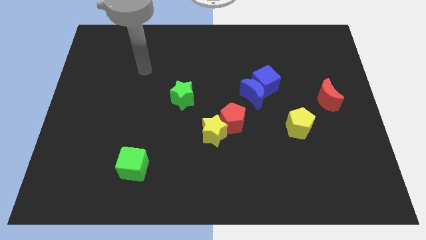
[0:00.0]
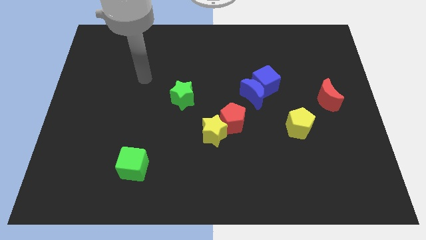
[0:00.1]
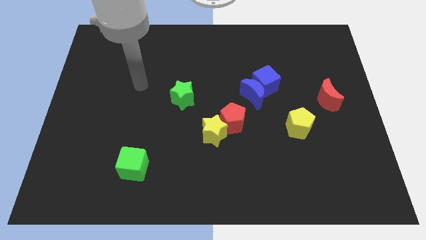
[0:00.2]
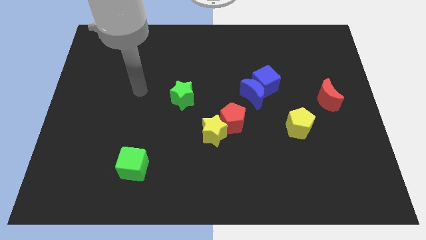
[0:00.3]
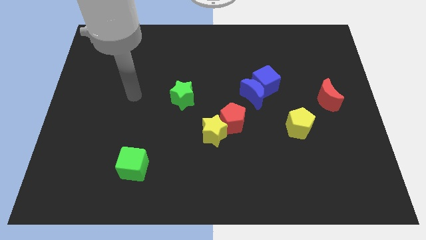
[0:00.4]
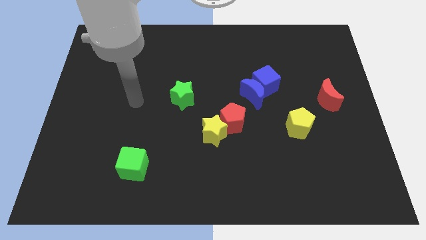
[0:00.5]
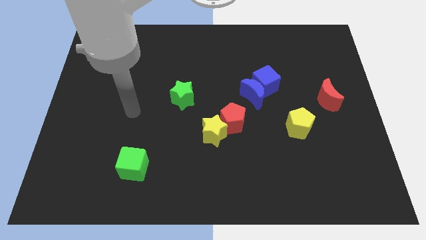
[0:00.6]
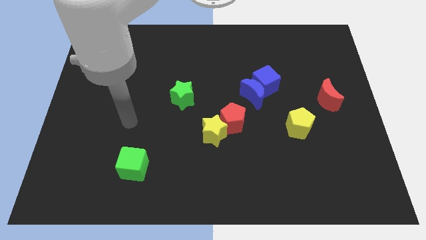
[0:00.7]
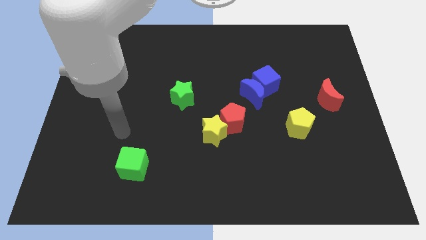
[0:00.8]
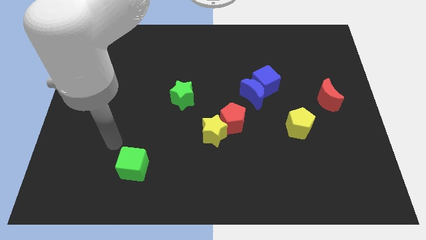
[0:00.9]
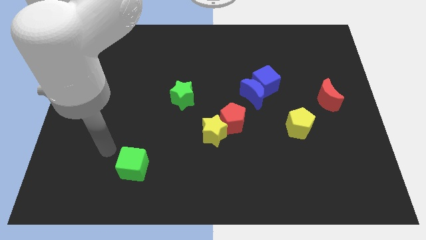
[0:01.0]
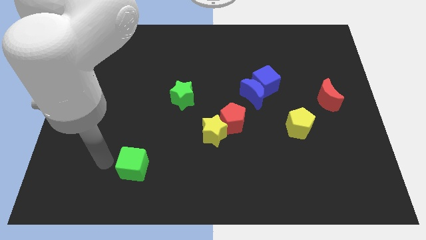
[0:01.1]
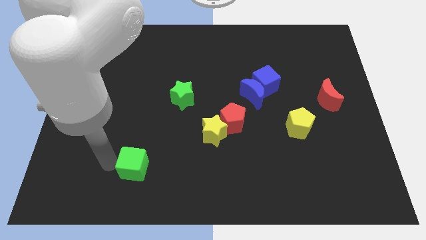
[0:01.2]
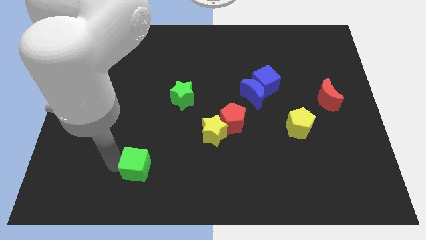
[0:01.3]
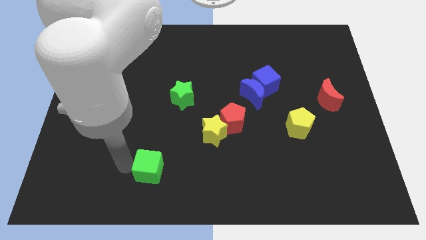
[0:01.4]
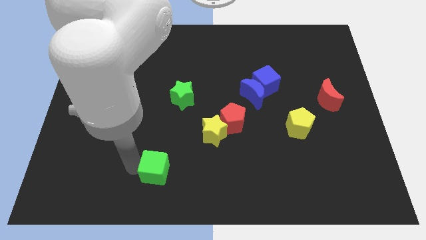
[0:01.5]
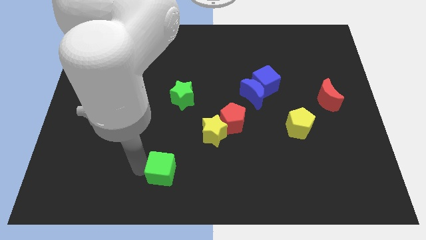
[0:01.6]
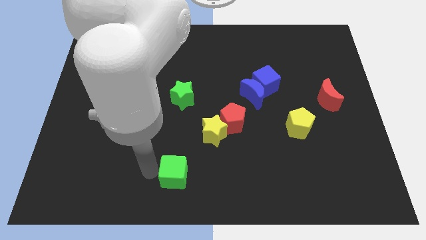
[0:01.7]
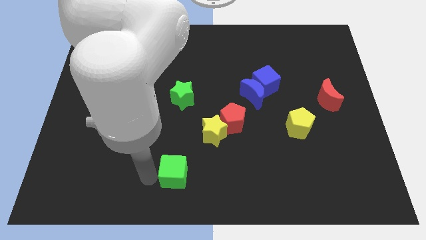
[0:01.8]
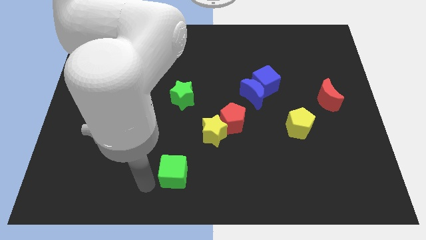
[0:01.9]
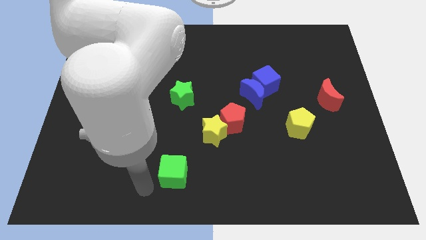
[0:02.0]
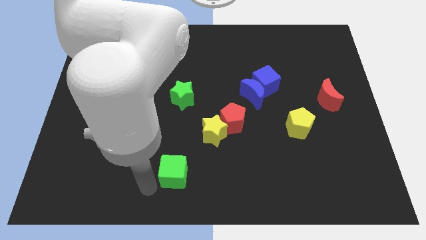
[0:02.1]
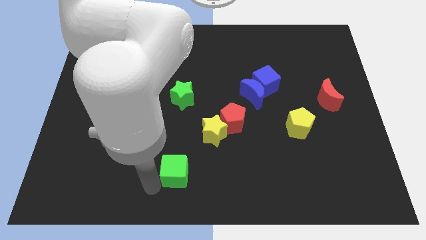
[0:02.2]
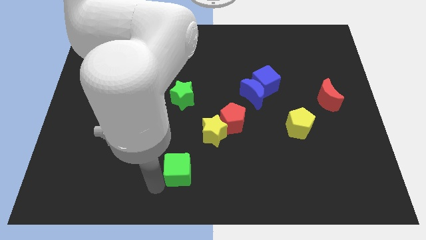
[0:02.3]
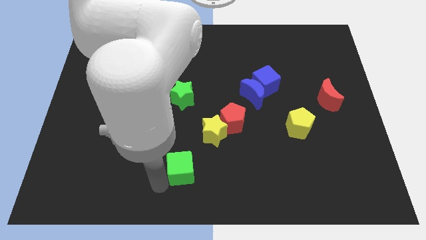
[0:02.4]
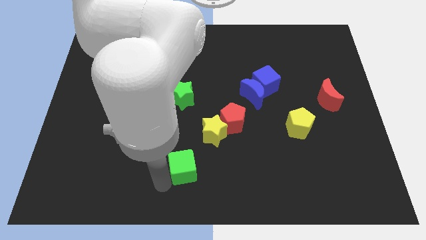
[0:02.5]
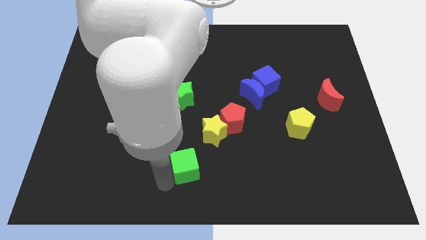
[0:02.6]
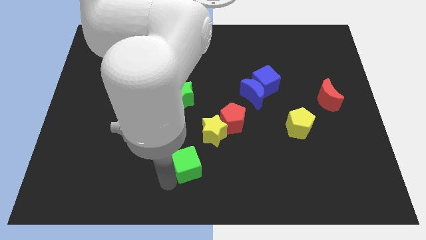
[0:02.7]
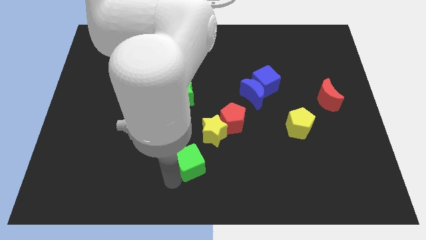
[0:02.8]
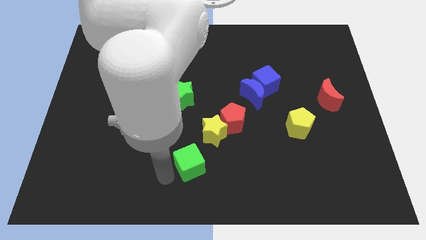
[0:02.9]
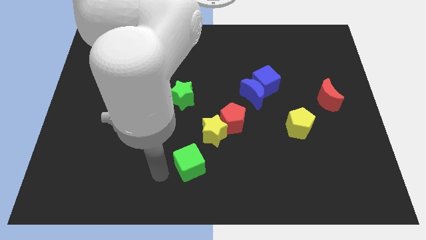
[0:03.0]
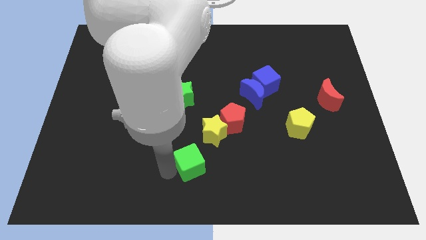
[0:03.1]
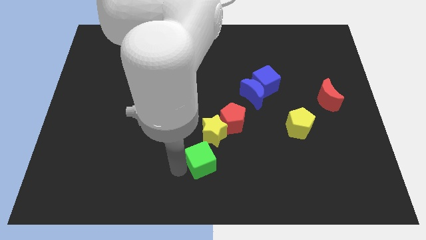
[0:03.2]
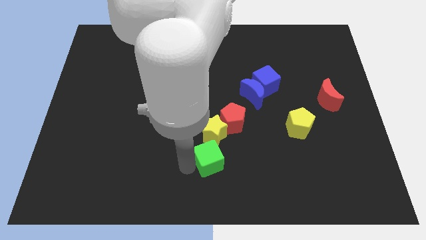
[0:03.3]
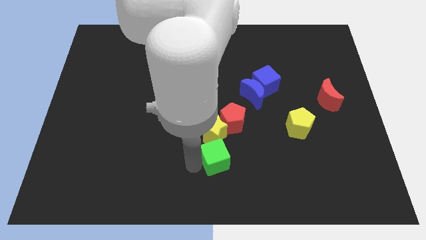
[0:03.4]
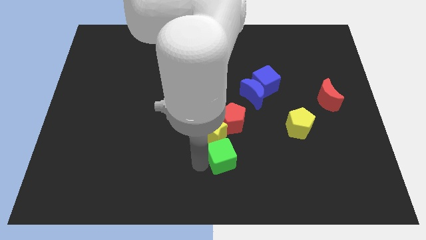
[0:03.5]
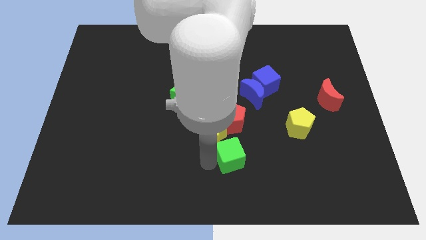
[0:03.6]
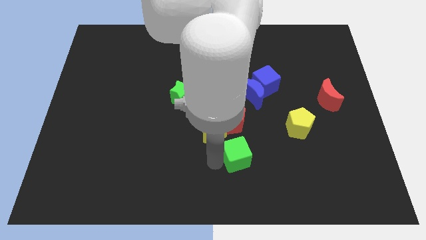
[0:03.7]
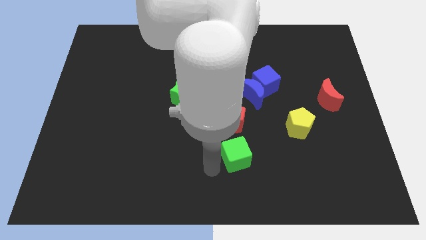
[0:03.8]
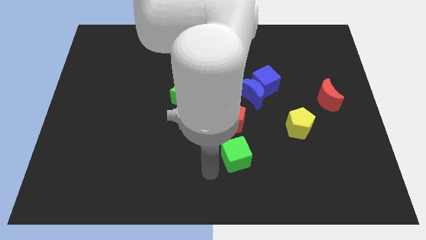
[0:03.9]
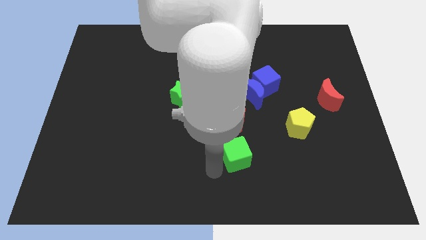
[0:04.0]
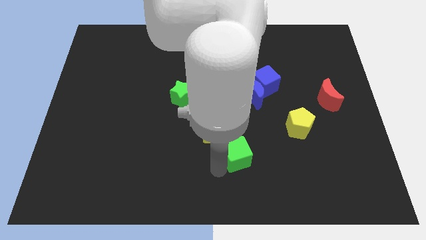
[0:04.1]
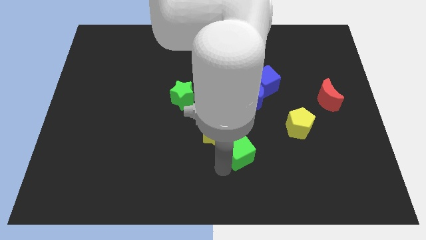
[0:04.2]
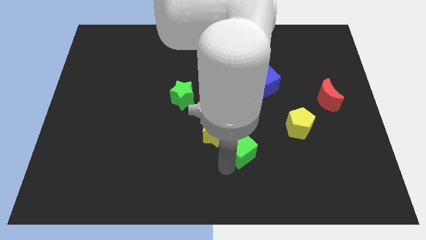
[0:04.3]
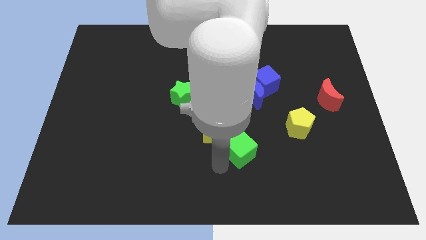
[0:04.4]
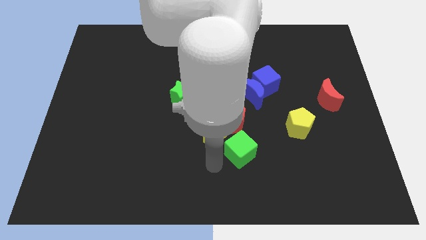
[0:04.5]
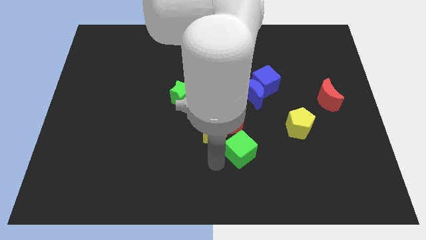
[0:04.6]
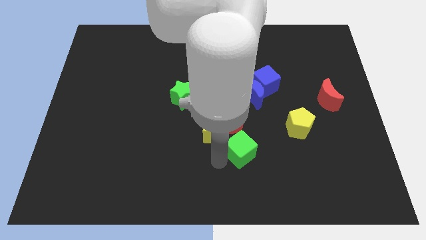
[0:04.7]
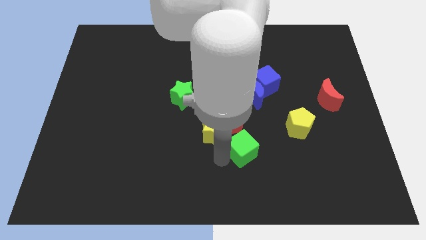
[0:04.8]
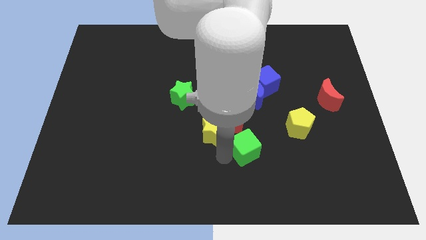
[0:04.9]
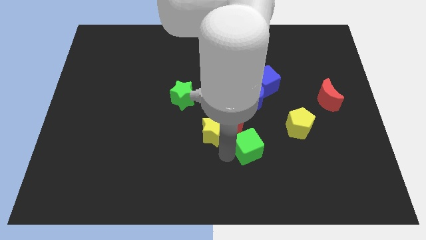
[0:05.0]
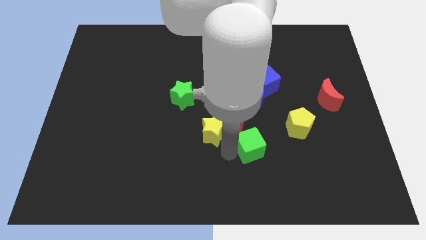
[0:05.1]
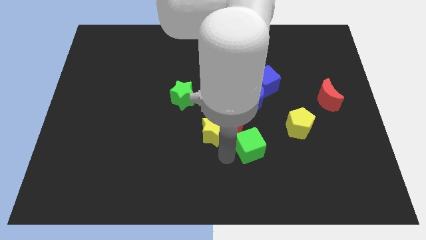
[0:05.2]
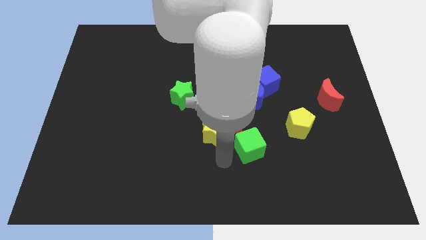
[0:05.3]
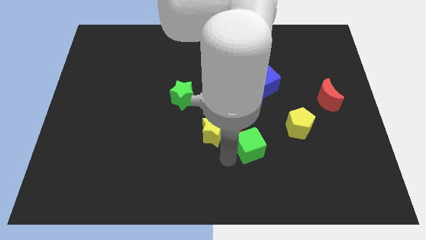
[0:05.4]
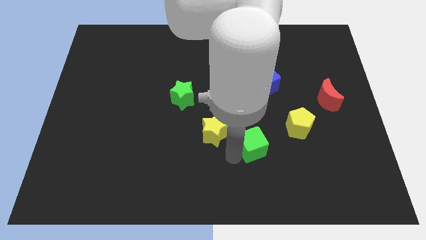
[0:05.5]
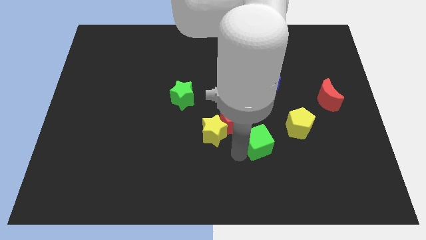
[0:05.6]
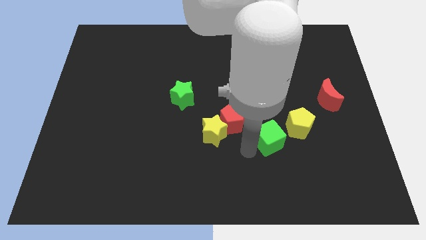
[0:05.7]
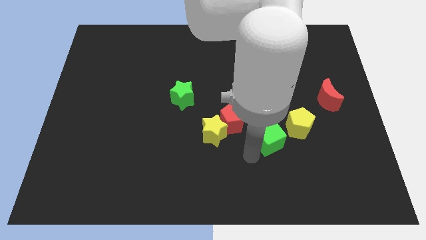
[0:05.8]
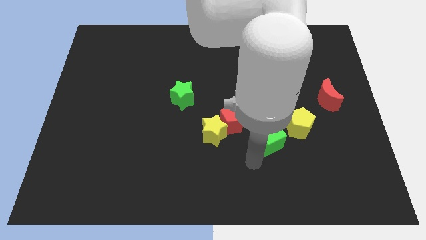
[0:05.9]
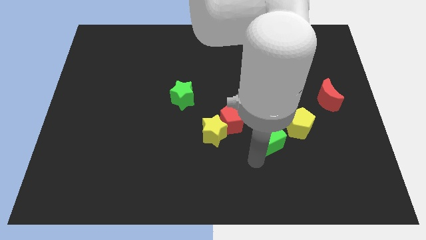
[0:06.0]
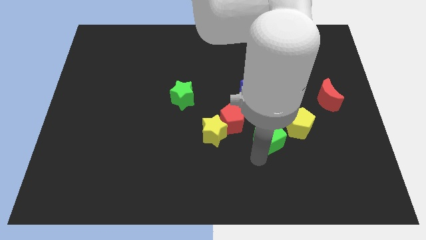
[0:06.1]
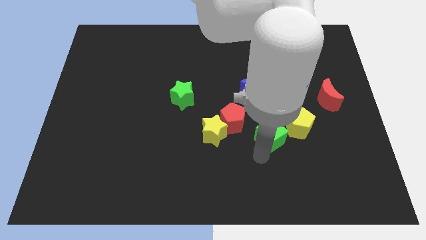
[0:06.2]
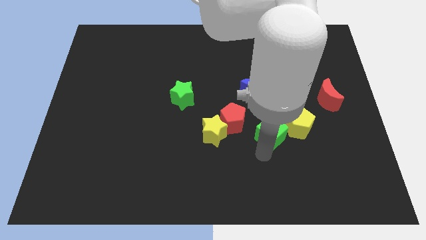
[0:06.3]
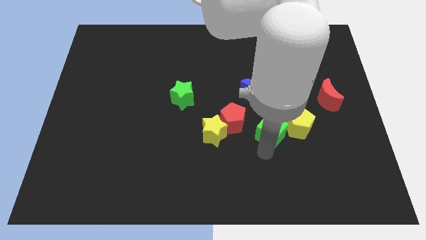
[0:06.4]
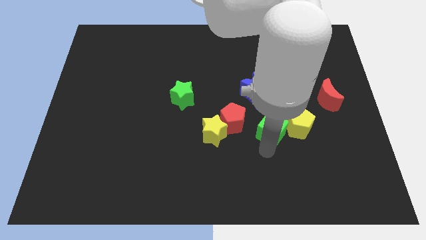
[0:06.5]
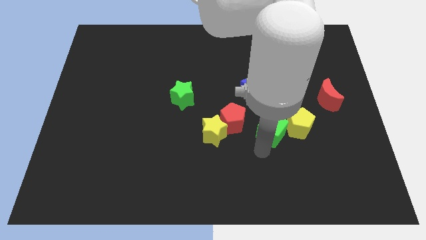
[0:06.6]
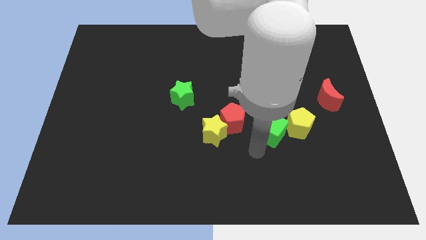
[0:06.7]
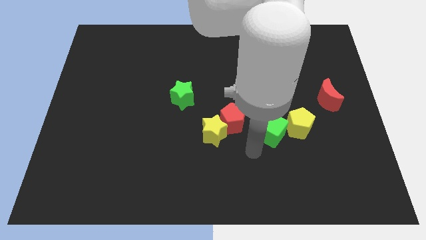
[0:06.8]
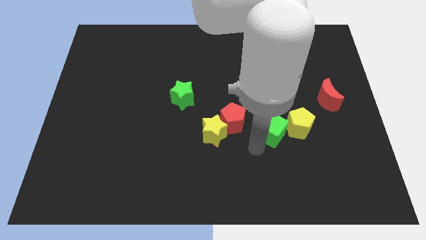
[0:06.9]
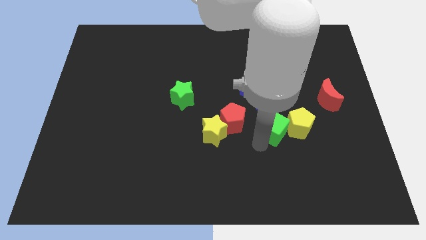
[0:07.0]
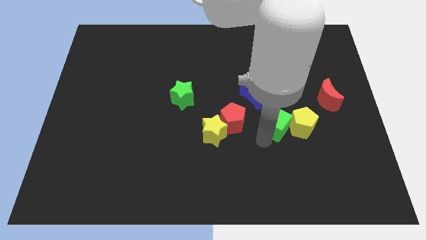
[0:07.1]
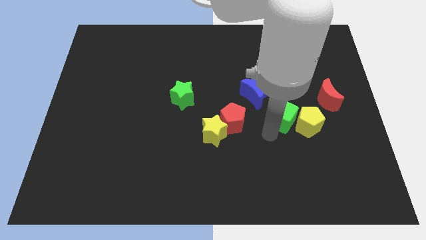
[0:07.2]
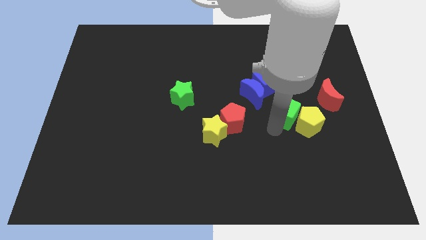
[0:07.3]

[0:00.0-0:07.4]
move the green cube to the bottom right of the blue cube
